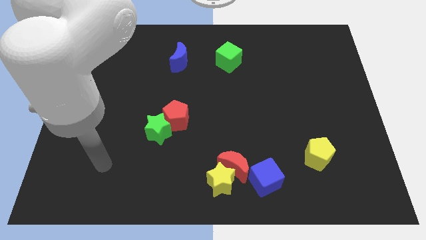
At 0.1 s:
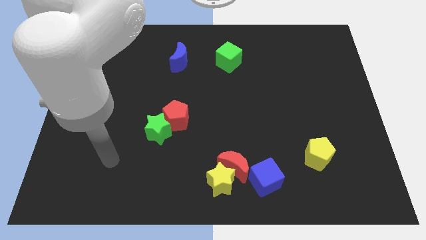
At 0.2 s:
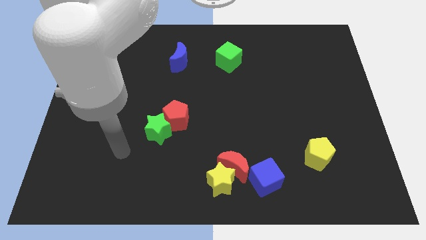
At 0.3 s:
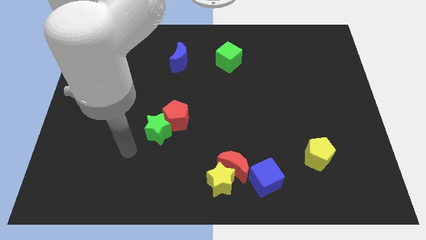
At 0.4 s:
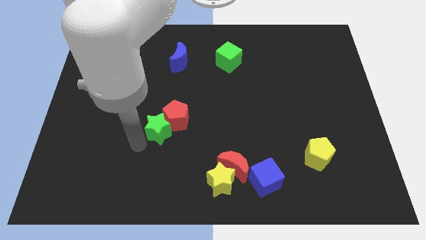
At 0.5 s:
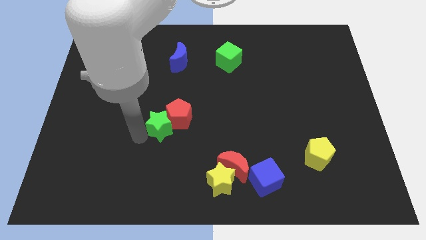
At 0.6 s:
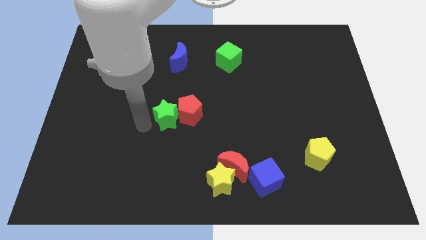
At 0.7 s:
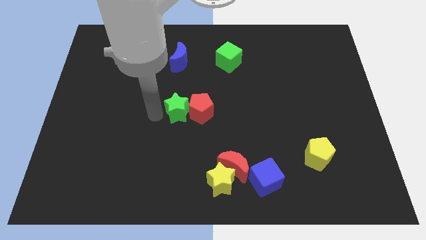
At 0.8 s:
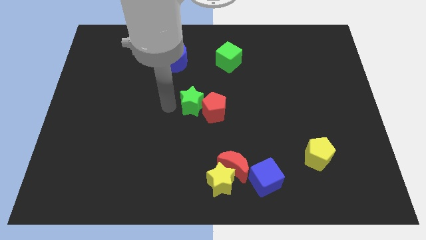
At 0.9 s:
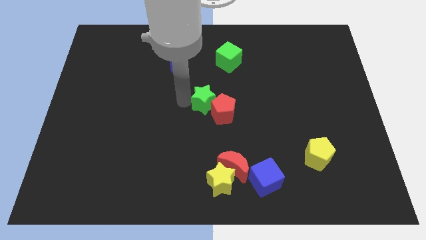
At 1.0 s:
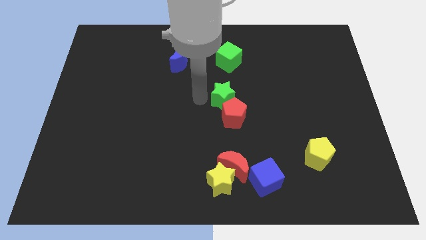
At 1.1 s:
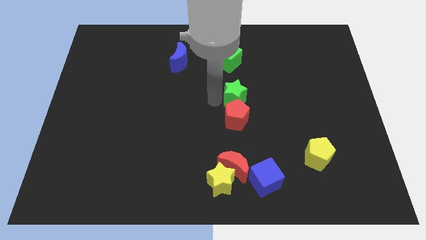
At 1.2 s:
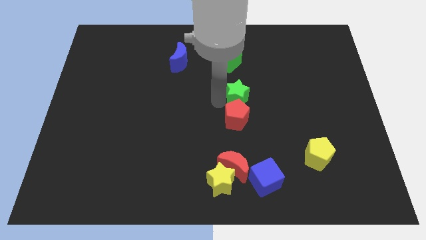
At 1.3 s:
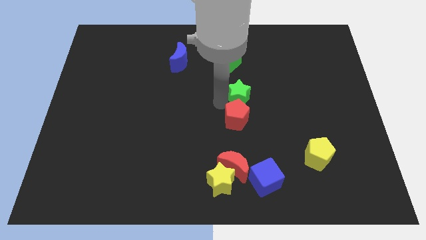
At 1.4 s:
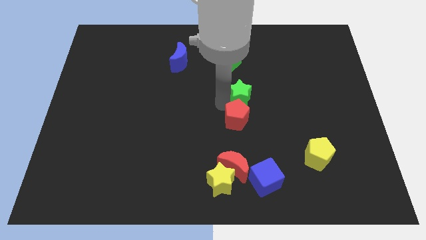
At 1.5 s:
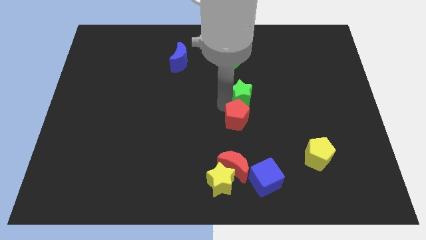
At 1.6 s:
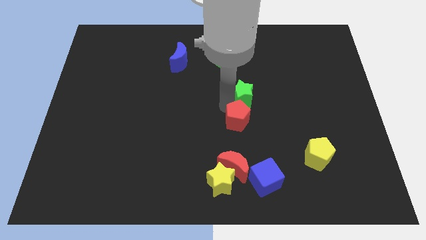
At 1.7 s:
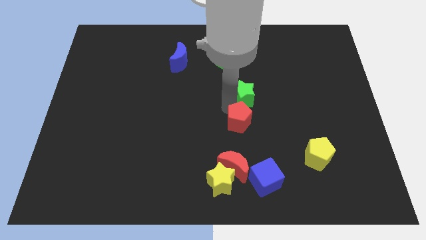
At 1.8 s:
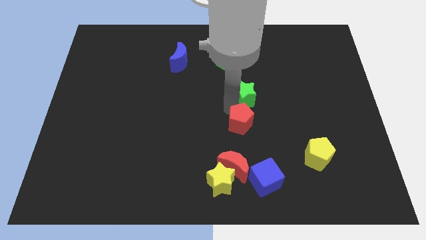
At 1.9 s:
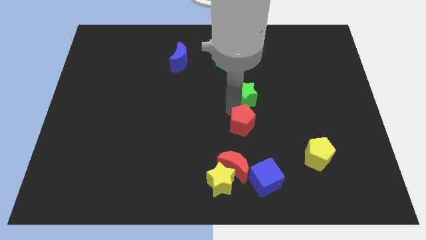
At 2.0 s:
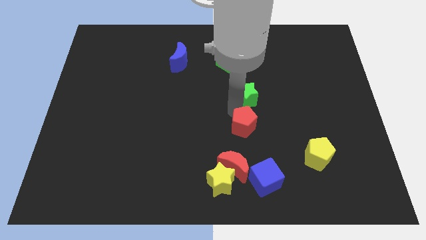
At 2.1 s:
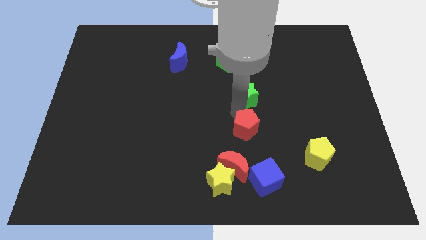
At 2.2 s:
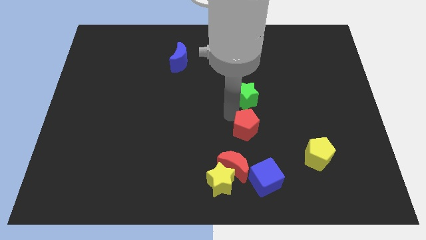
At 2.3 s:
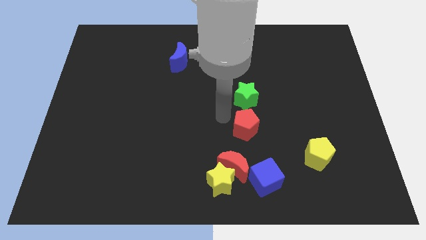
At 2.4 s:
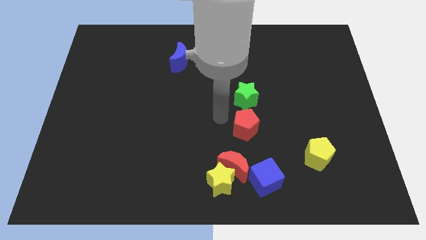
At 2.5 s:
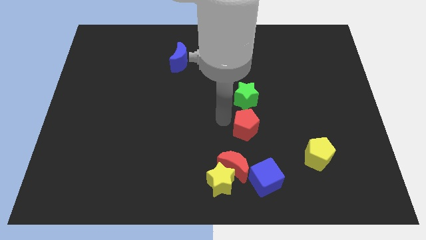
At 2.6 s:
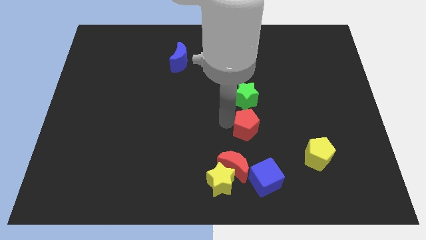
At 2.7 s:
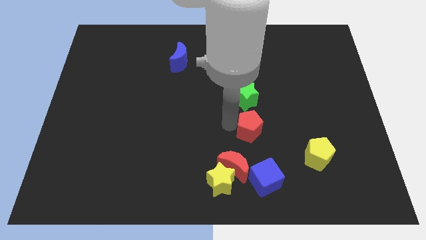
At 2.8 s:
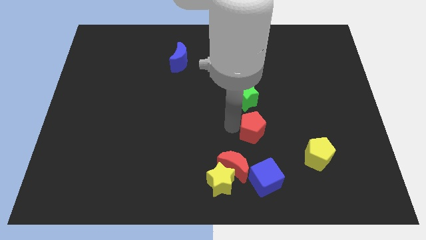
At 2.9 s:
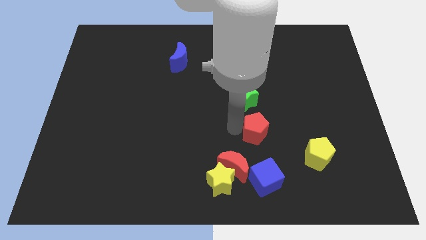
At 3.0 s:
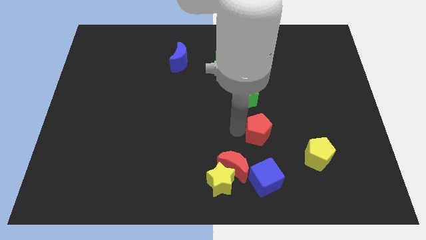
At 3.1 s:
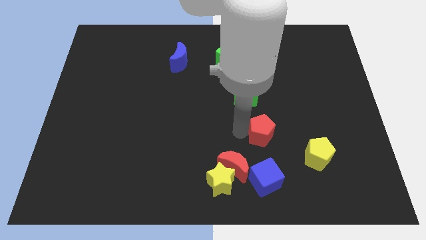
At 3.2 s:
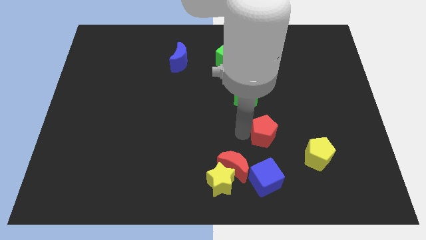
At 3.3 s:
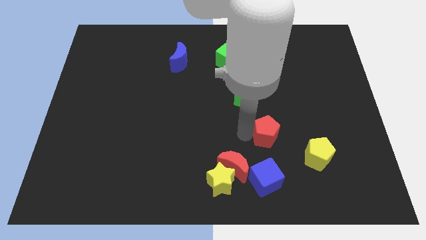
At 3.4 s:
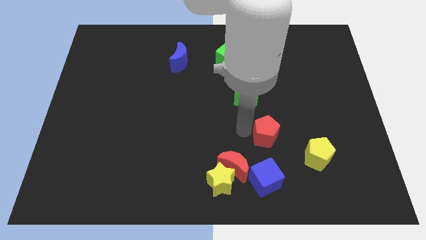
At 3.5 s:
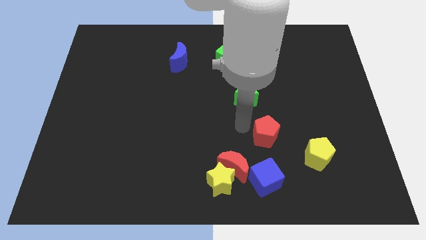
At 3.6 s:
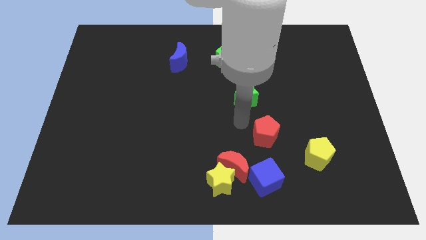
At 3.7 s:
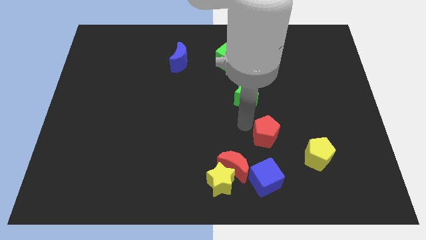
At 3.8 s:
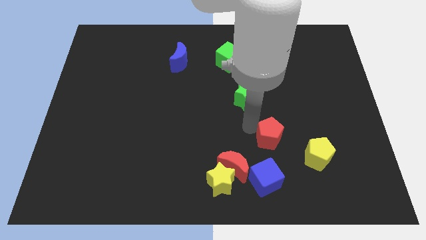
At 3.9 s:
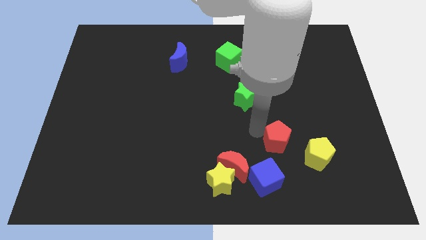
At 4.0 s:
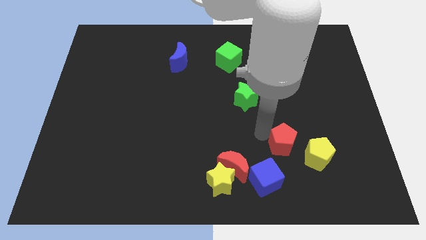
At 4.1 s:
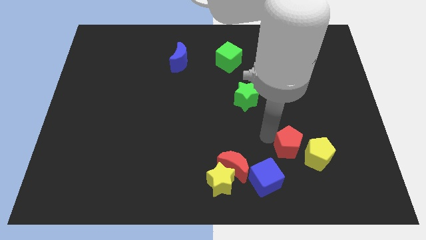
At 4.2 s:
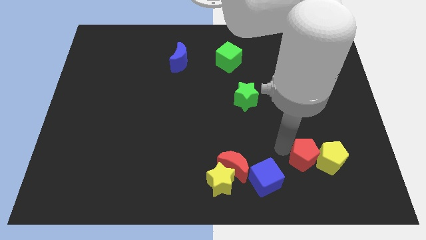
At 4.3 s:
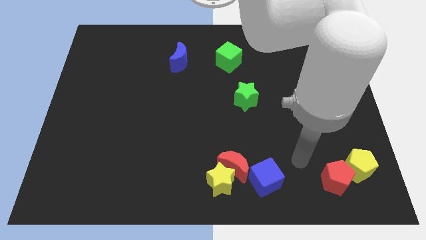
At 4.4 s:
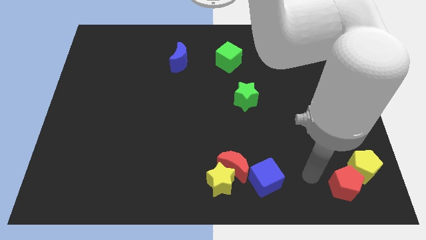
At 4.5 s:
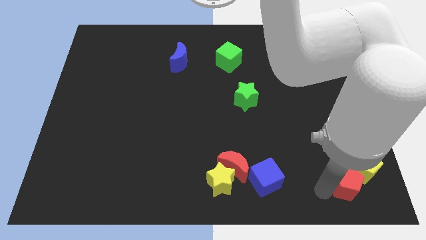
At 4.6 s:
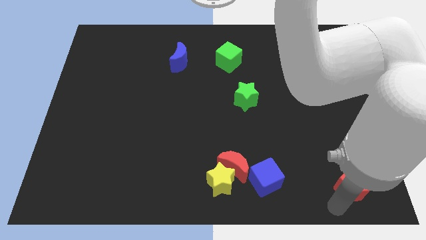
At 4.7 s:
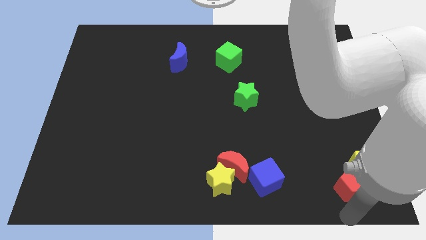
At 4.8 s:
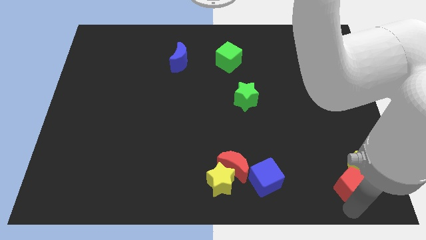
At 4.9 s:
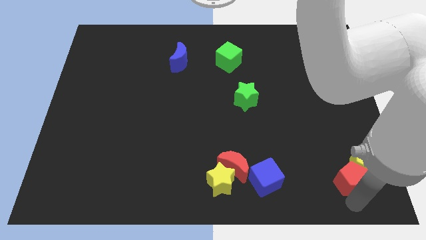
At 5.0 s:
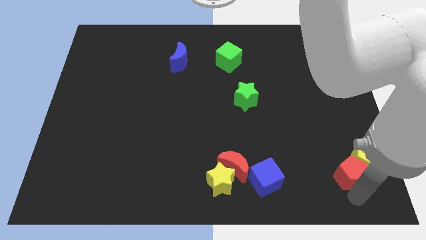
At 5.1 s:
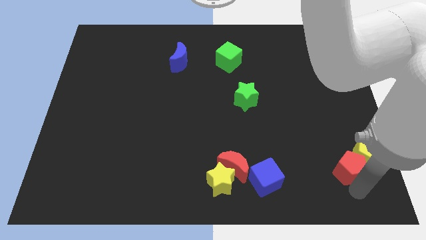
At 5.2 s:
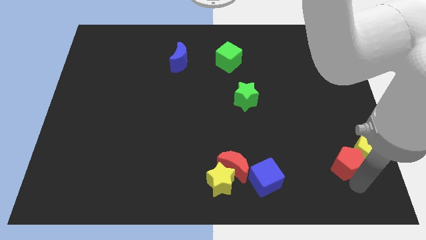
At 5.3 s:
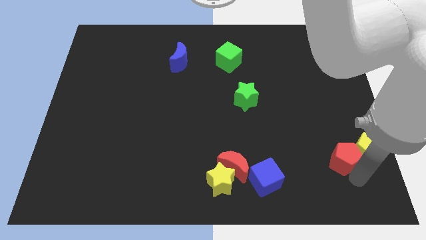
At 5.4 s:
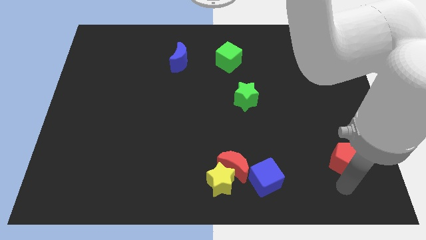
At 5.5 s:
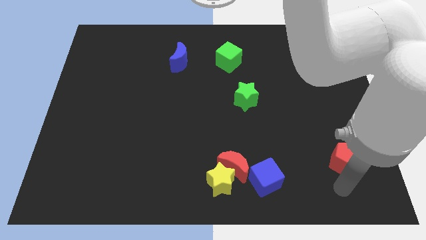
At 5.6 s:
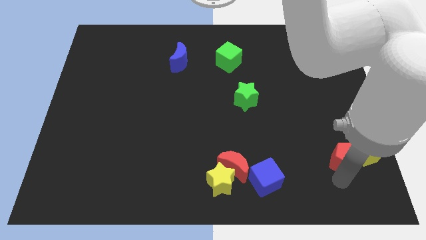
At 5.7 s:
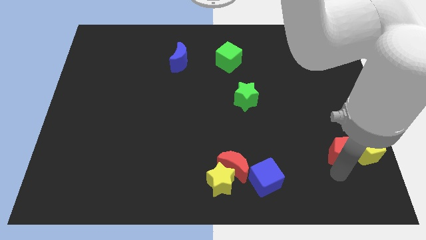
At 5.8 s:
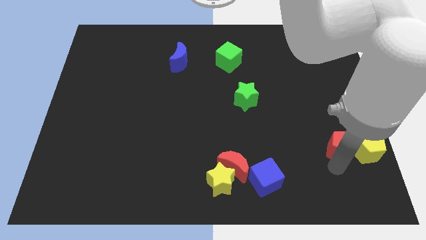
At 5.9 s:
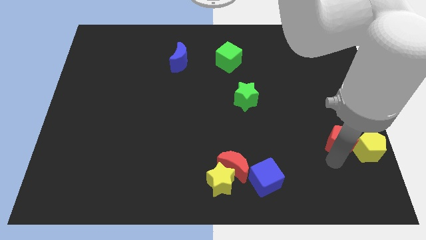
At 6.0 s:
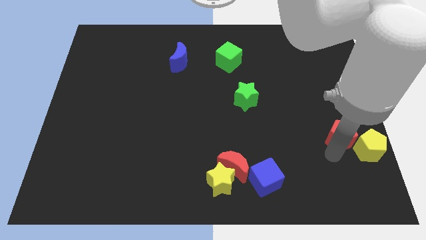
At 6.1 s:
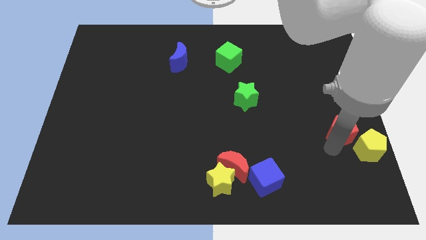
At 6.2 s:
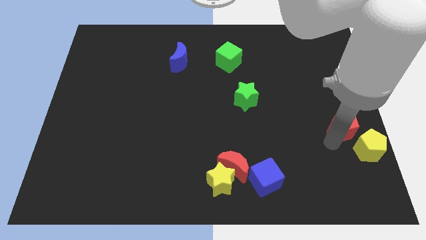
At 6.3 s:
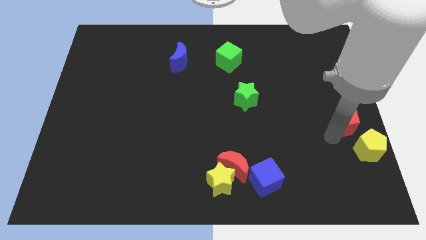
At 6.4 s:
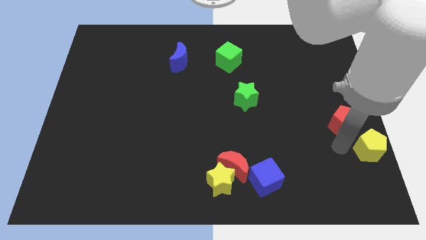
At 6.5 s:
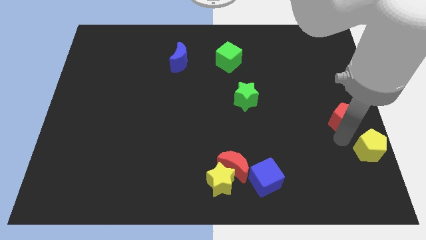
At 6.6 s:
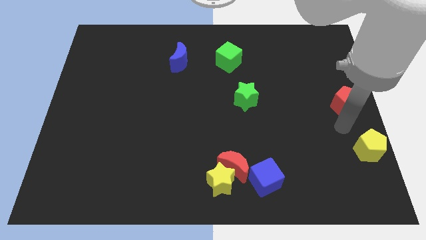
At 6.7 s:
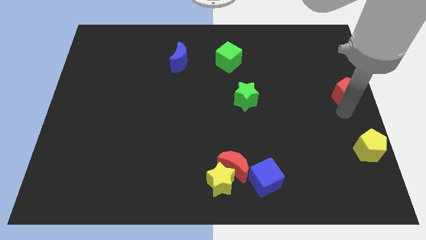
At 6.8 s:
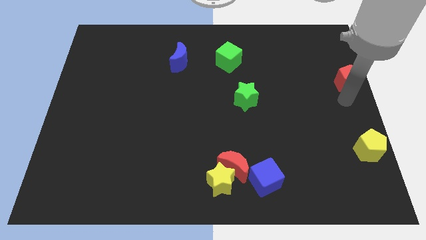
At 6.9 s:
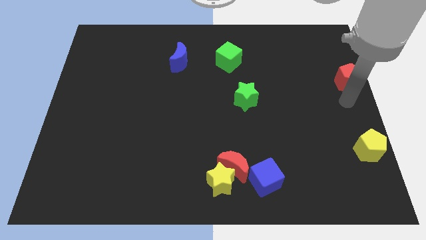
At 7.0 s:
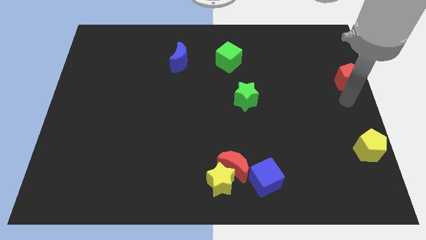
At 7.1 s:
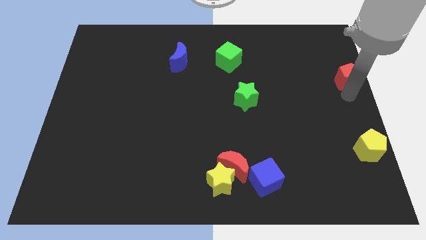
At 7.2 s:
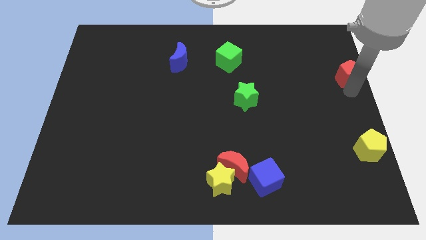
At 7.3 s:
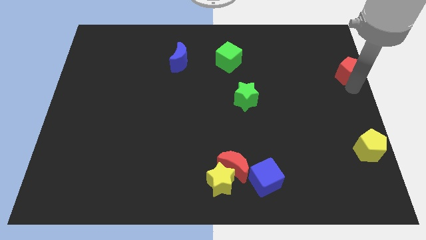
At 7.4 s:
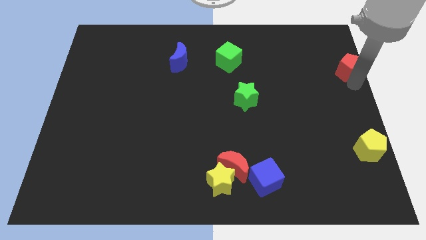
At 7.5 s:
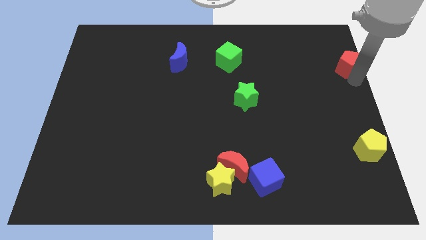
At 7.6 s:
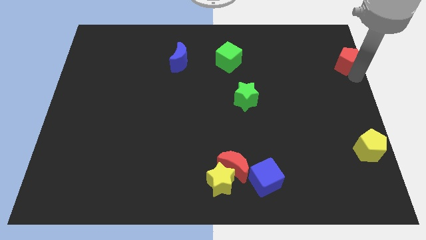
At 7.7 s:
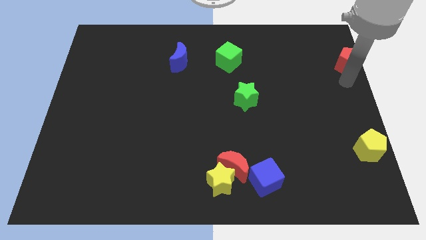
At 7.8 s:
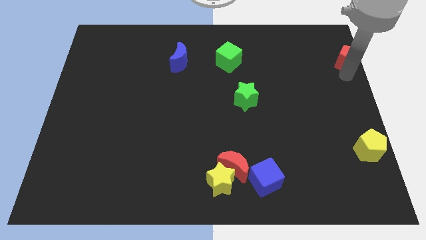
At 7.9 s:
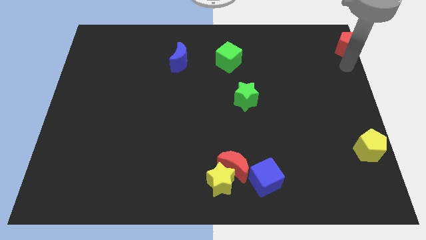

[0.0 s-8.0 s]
move the red pentagon to the upper right corner
